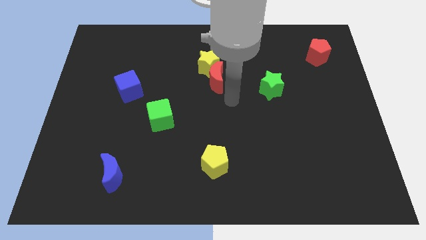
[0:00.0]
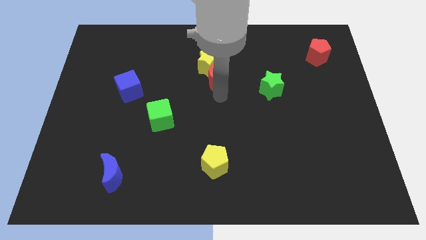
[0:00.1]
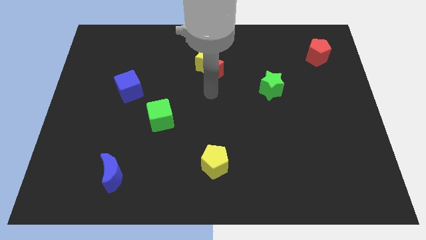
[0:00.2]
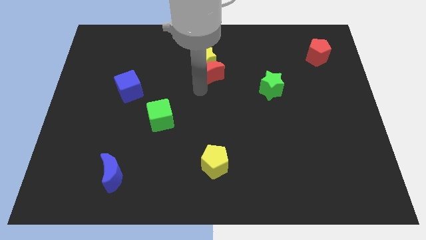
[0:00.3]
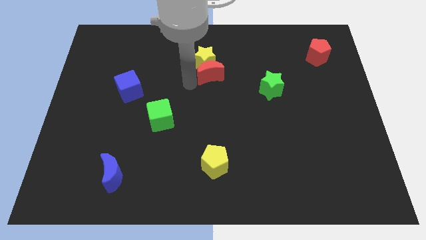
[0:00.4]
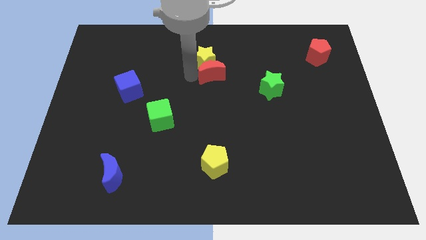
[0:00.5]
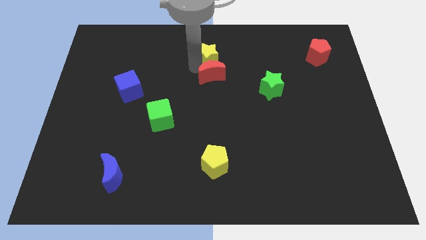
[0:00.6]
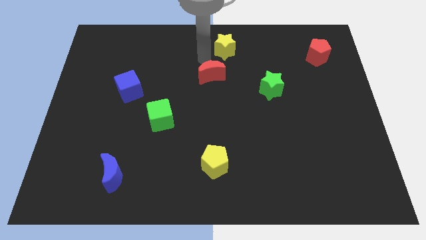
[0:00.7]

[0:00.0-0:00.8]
move the red moon away from the yellow star

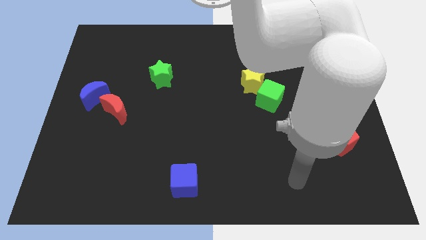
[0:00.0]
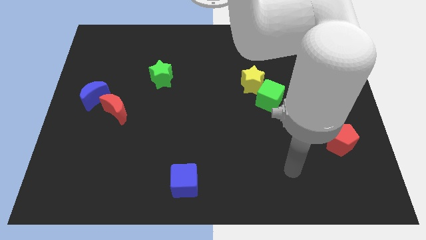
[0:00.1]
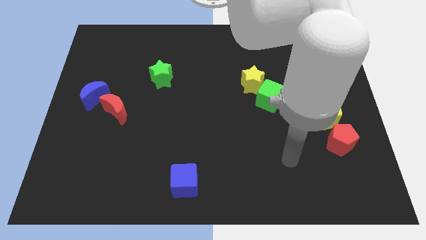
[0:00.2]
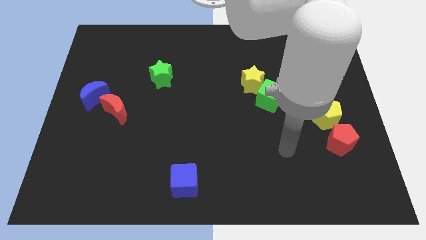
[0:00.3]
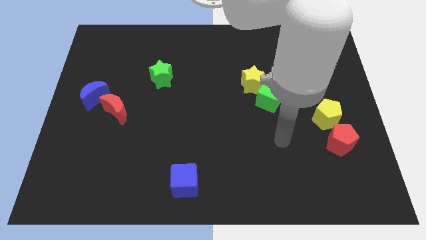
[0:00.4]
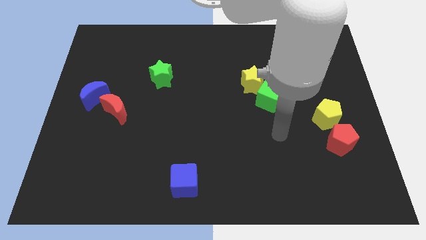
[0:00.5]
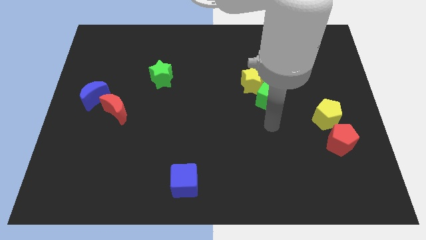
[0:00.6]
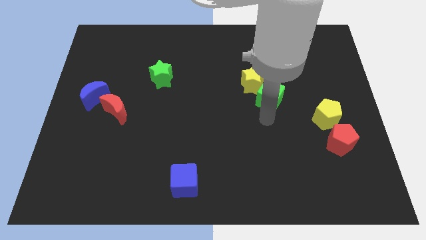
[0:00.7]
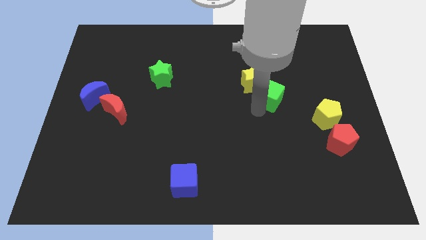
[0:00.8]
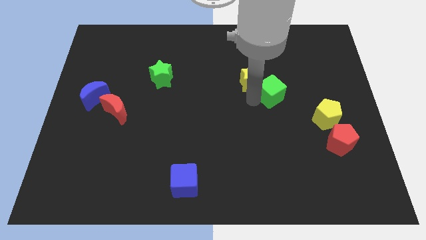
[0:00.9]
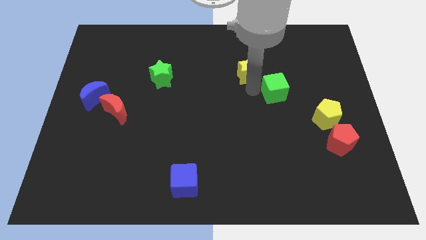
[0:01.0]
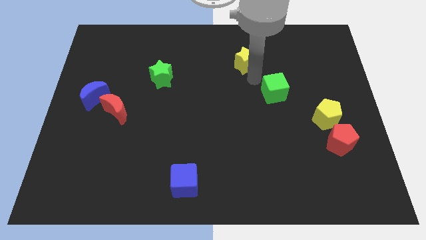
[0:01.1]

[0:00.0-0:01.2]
move the green cube away from the yellow star

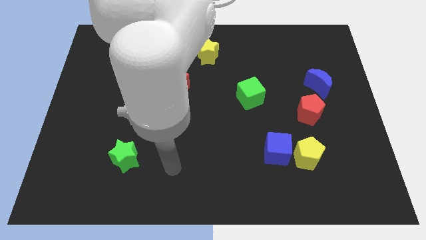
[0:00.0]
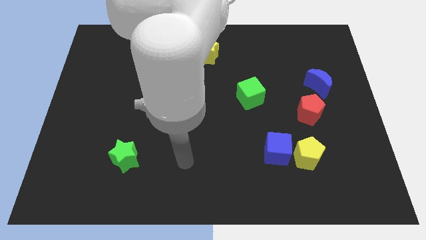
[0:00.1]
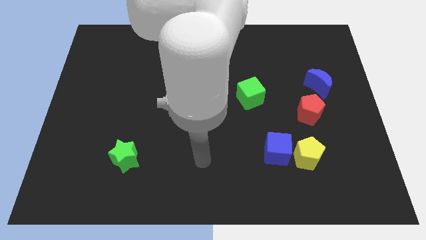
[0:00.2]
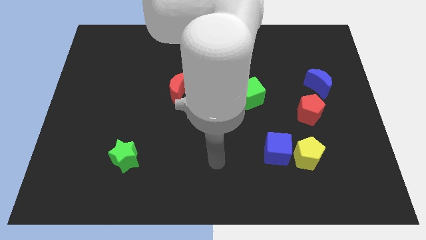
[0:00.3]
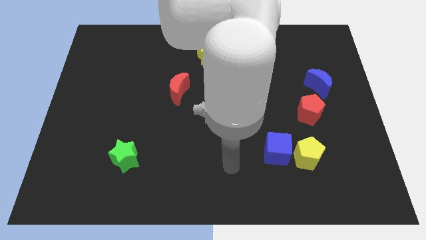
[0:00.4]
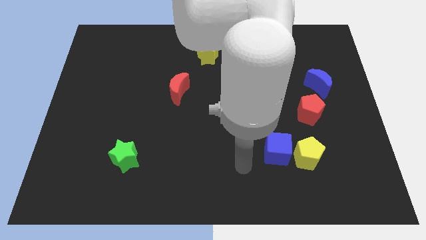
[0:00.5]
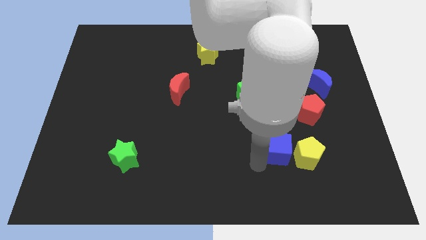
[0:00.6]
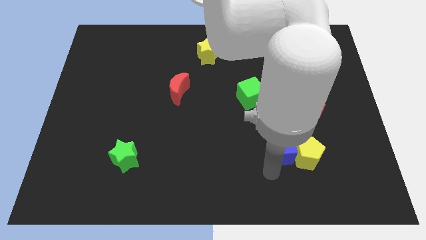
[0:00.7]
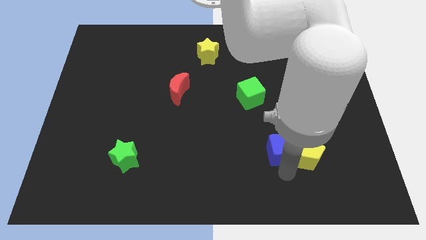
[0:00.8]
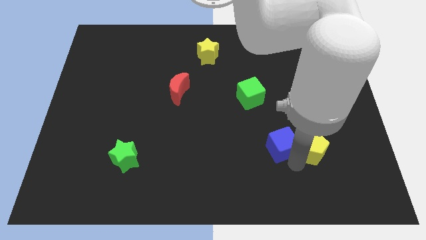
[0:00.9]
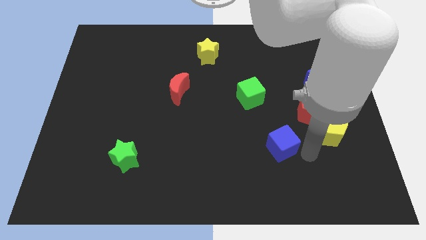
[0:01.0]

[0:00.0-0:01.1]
move the blue cube away from the yellow pentagon

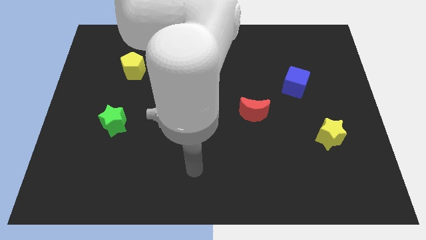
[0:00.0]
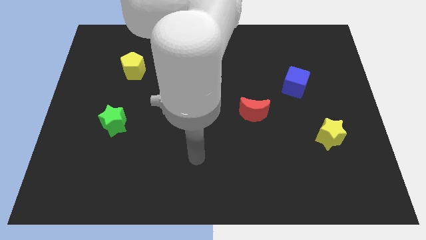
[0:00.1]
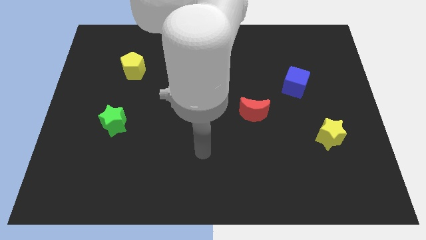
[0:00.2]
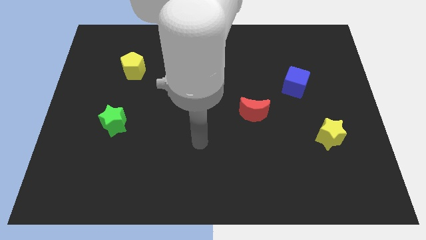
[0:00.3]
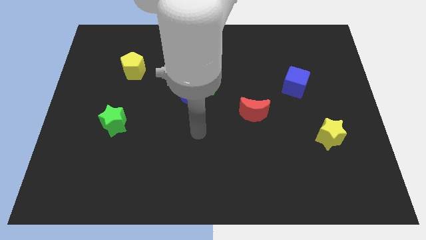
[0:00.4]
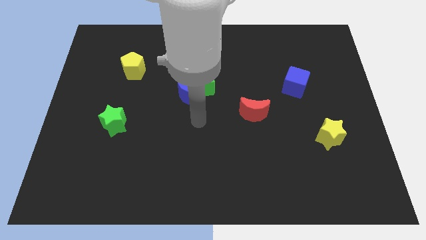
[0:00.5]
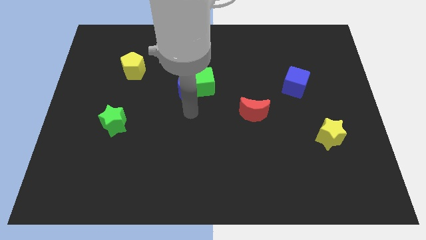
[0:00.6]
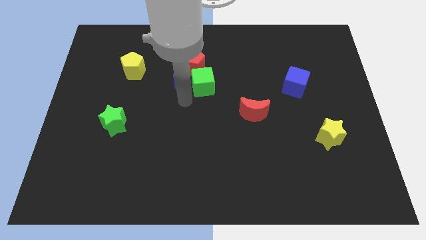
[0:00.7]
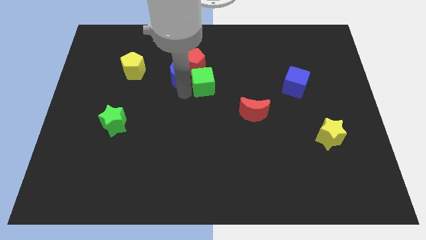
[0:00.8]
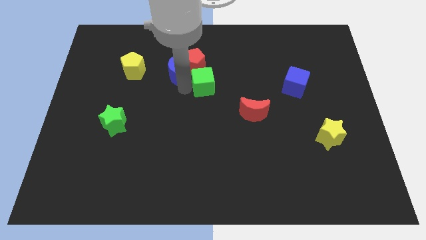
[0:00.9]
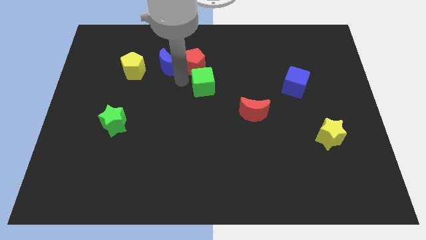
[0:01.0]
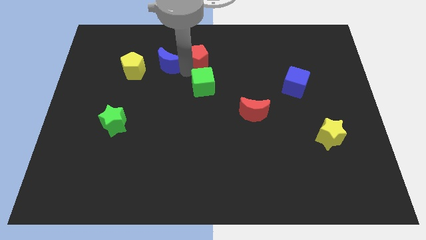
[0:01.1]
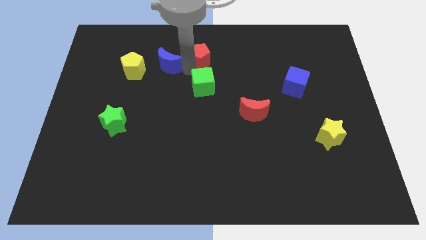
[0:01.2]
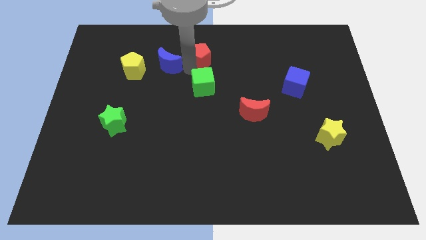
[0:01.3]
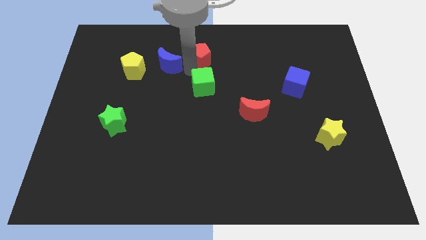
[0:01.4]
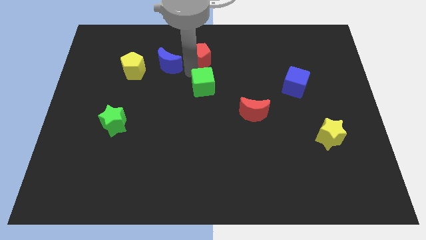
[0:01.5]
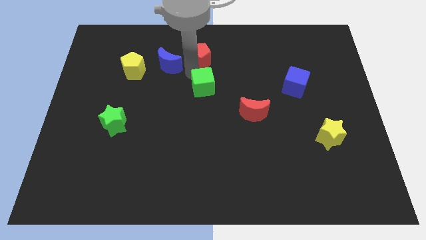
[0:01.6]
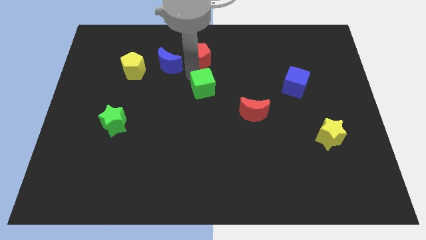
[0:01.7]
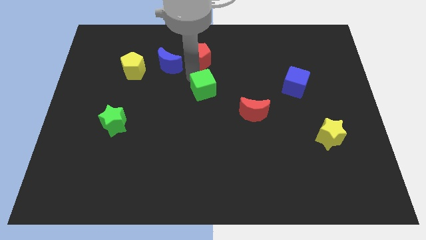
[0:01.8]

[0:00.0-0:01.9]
separate the green cube from the blue moon and red pentagon

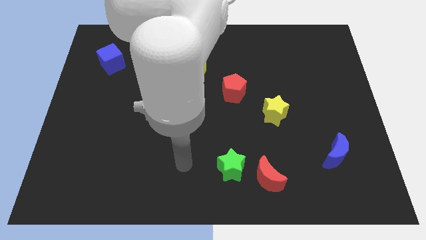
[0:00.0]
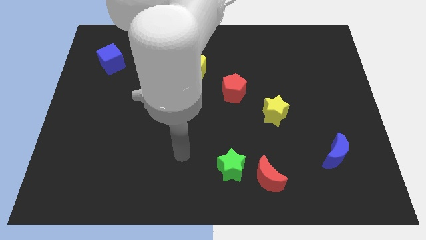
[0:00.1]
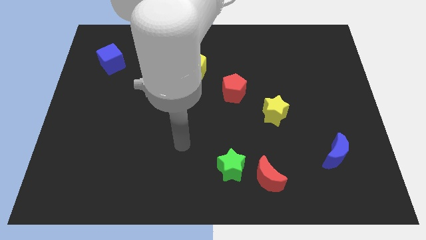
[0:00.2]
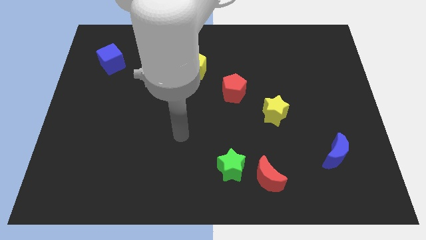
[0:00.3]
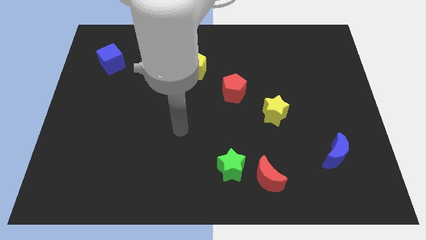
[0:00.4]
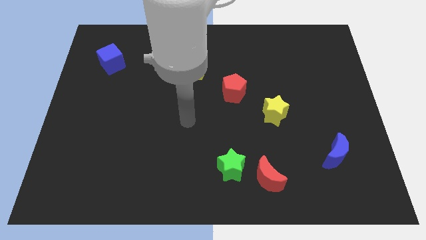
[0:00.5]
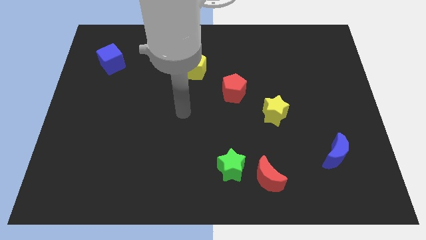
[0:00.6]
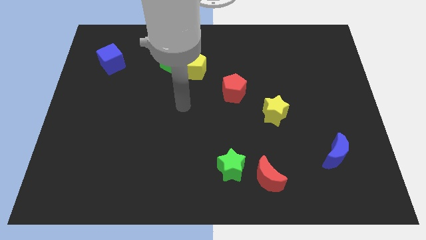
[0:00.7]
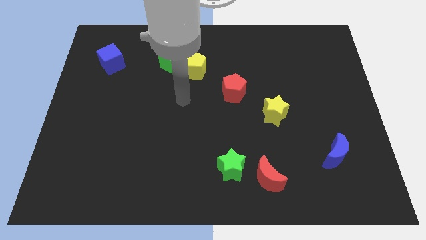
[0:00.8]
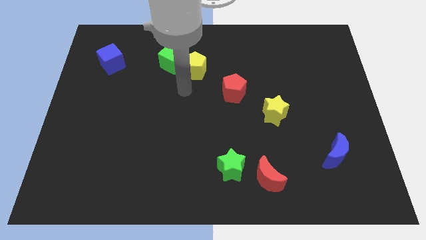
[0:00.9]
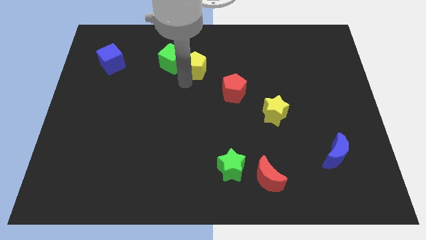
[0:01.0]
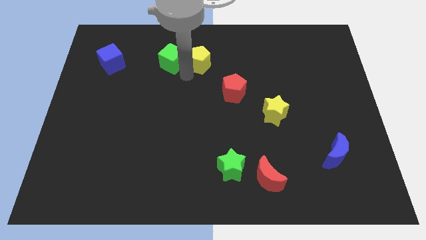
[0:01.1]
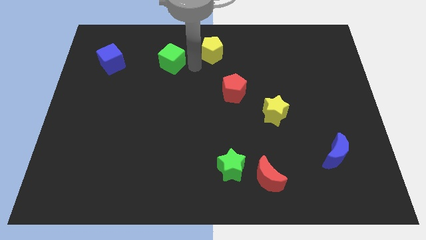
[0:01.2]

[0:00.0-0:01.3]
move the green cube away from the yellow pentagon

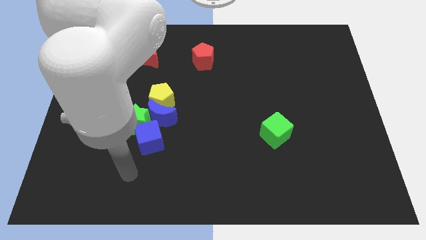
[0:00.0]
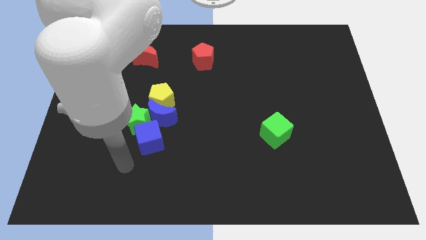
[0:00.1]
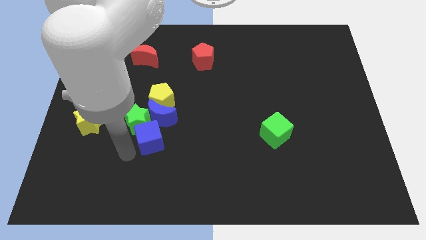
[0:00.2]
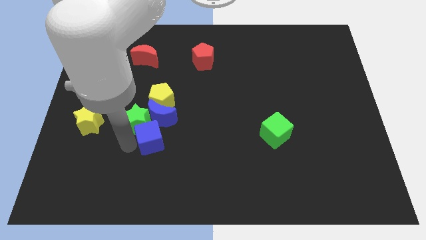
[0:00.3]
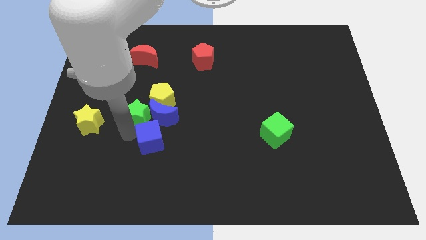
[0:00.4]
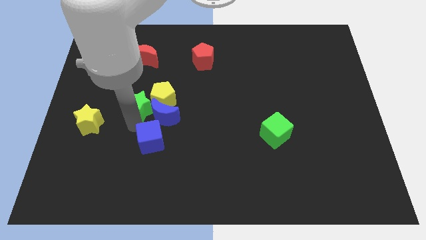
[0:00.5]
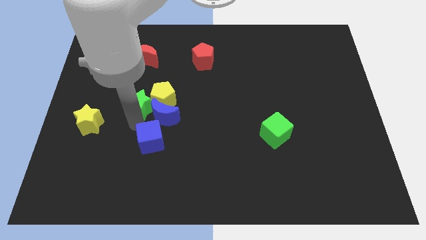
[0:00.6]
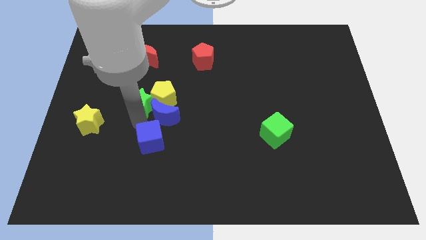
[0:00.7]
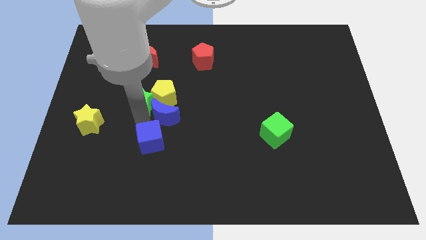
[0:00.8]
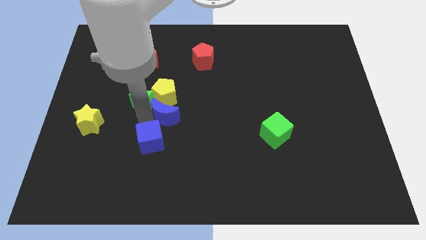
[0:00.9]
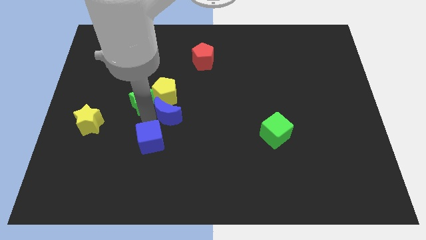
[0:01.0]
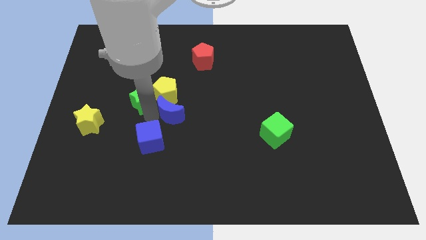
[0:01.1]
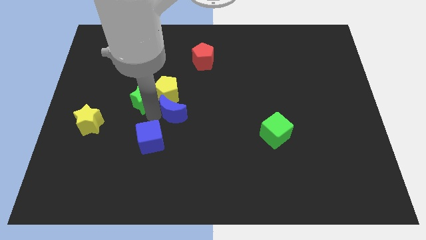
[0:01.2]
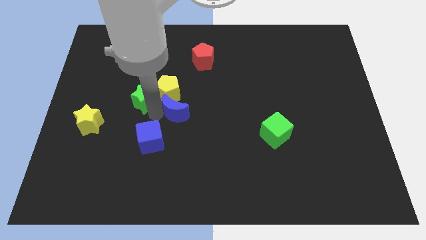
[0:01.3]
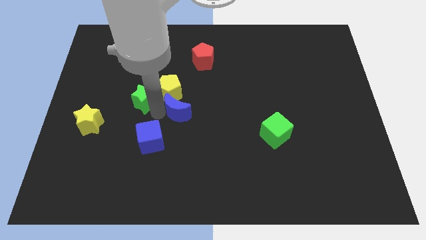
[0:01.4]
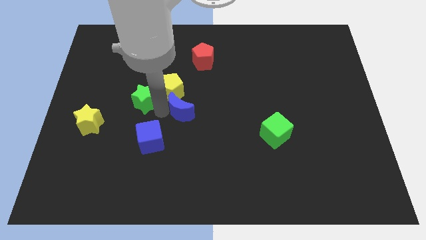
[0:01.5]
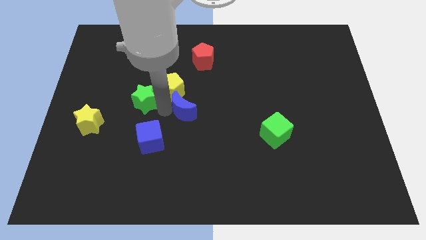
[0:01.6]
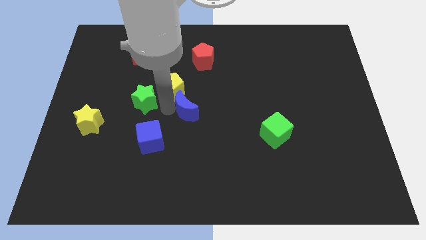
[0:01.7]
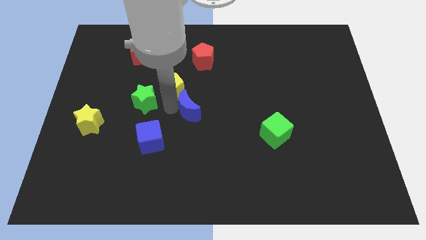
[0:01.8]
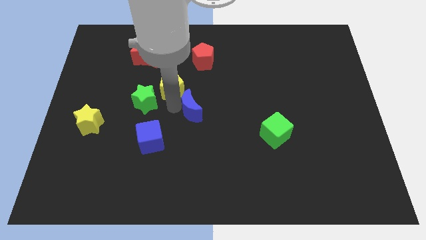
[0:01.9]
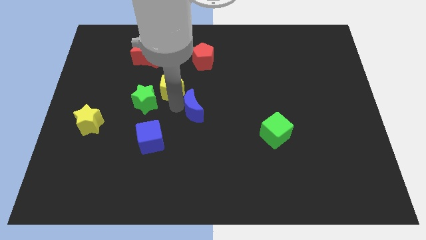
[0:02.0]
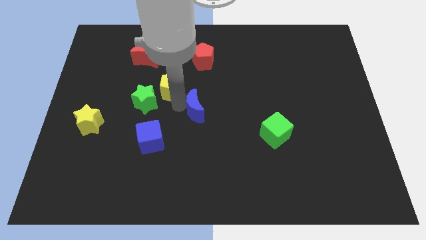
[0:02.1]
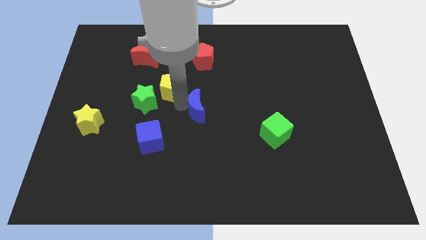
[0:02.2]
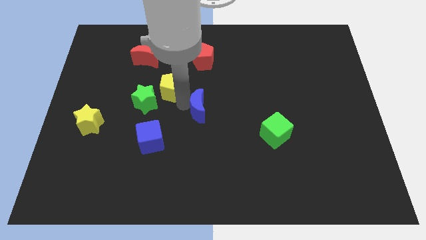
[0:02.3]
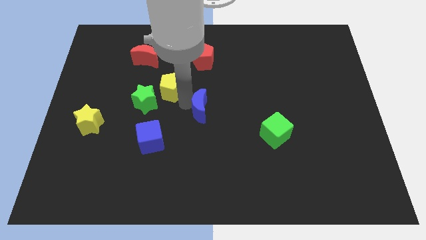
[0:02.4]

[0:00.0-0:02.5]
move the blue moon away from the green star, yellow pentagon, and blue cube

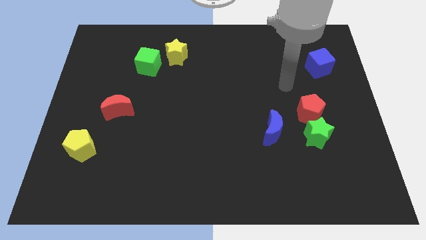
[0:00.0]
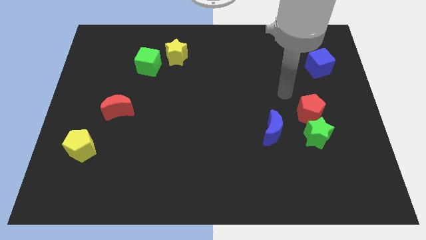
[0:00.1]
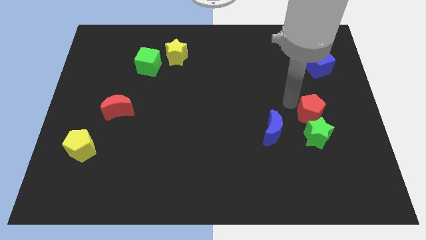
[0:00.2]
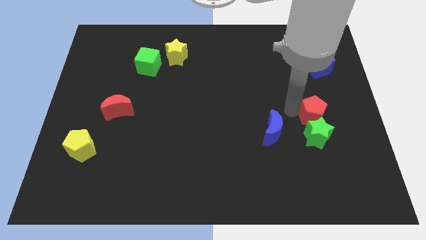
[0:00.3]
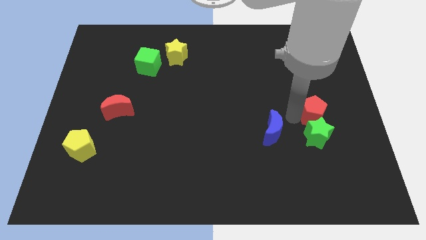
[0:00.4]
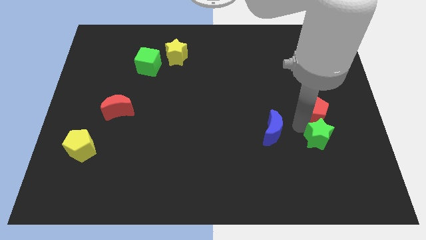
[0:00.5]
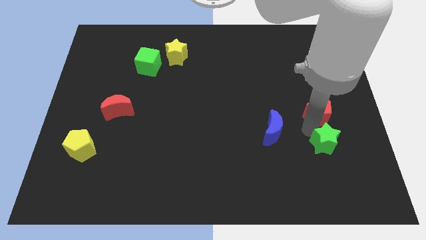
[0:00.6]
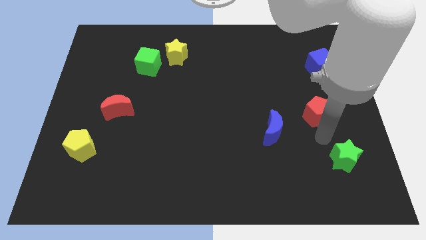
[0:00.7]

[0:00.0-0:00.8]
separate the red pentagon from the green star
